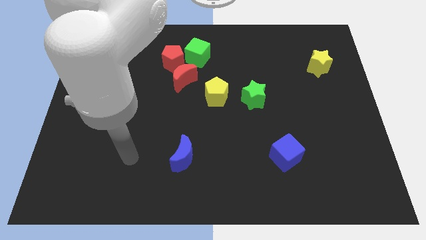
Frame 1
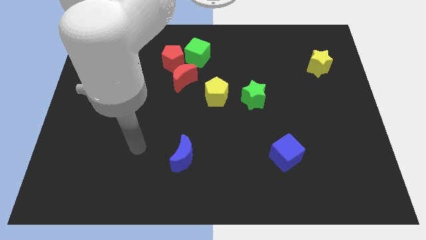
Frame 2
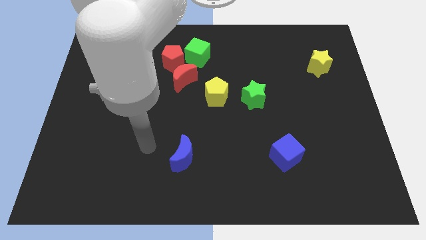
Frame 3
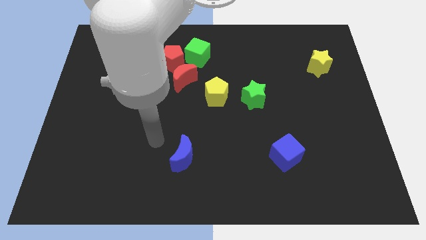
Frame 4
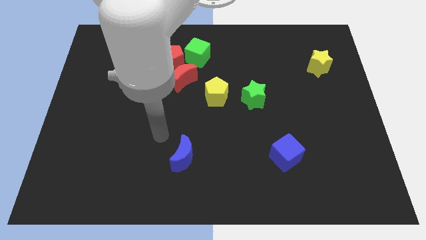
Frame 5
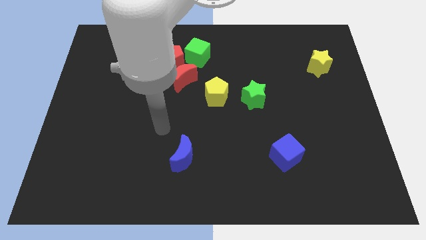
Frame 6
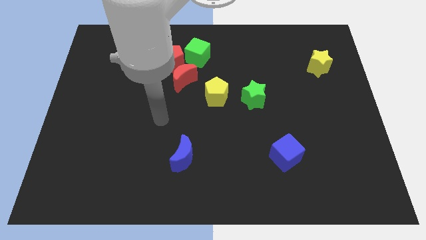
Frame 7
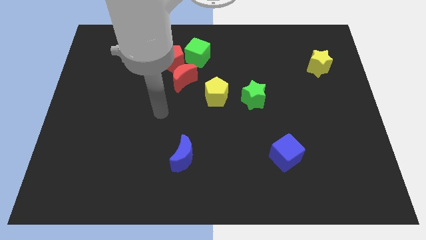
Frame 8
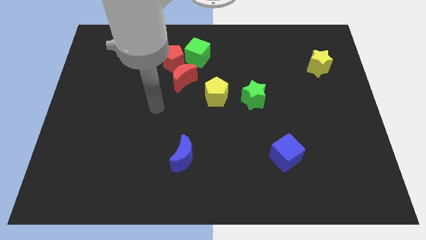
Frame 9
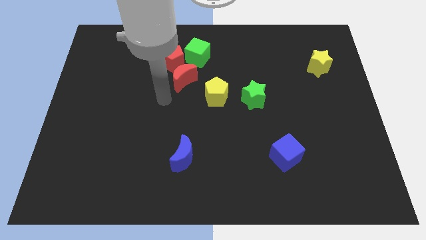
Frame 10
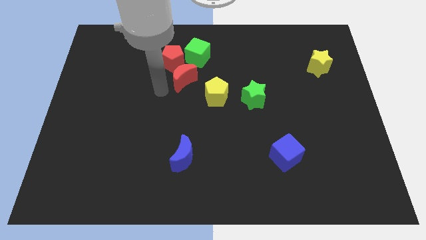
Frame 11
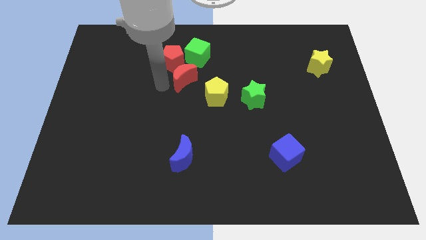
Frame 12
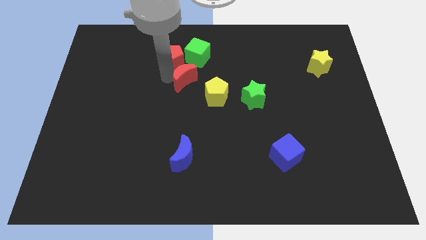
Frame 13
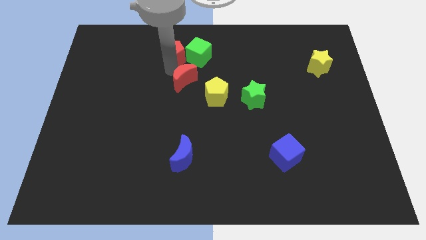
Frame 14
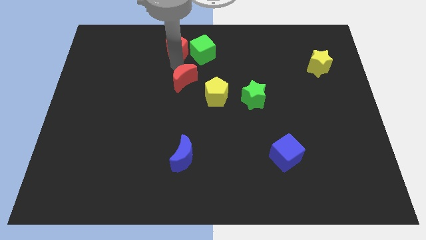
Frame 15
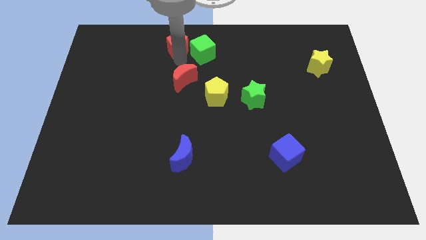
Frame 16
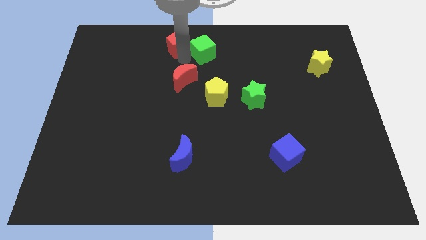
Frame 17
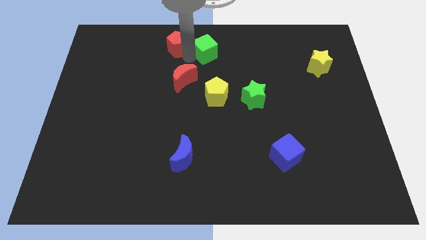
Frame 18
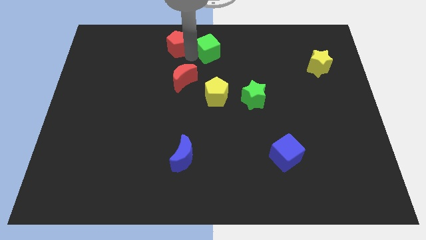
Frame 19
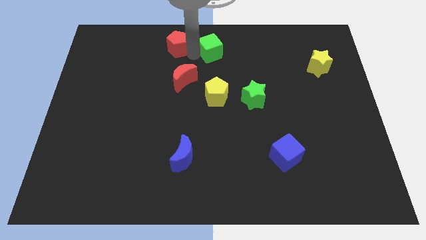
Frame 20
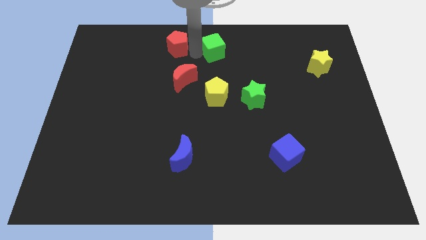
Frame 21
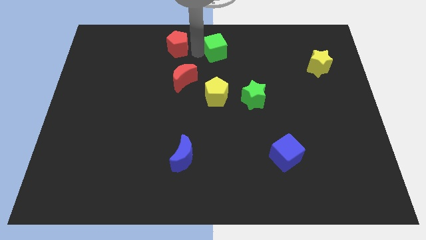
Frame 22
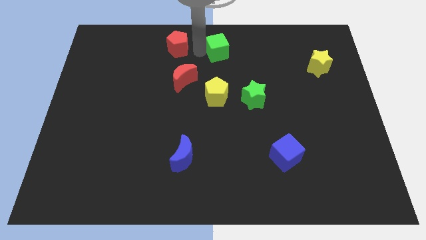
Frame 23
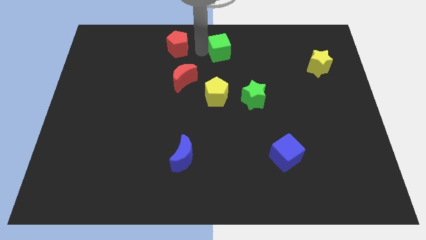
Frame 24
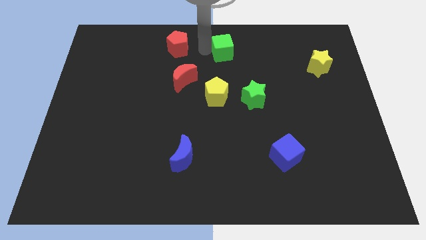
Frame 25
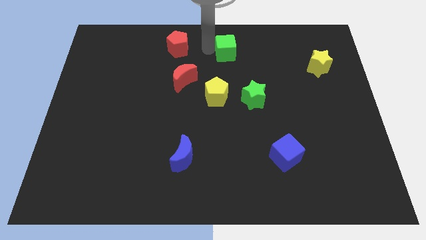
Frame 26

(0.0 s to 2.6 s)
slightly push the green cube to the right

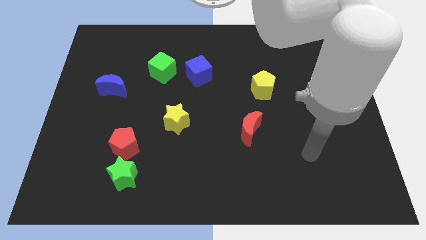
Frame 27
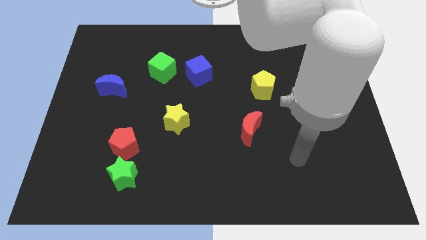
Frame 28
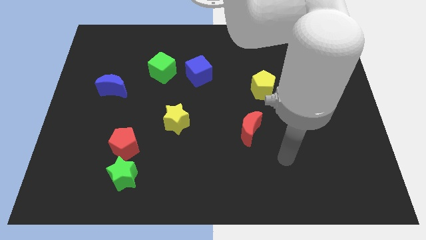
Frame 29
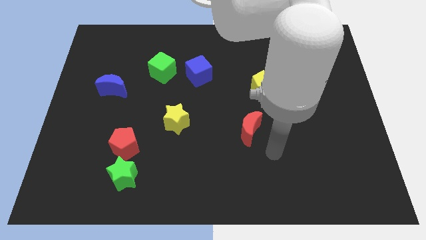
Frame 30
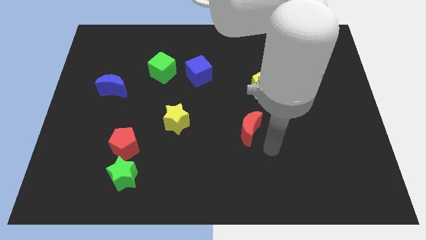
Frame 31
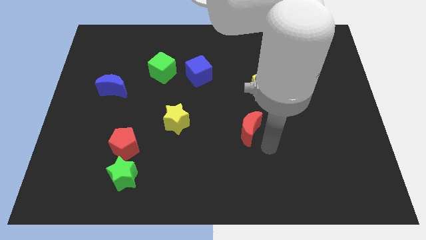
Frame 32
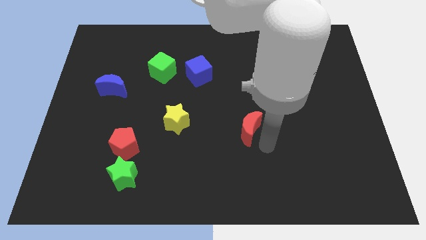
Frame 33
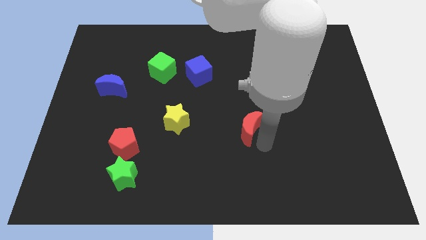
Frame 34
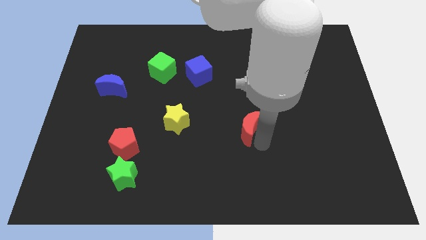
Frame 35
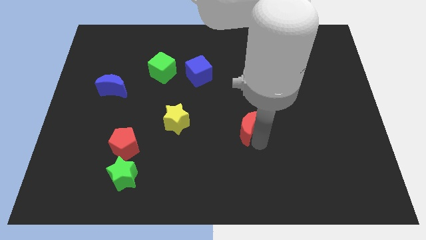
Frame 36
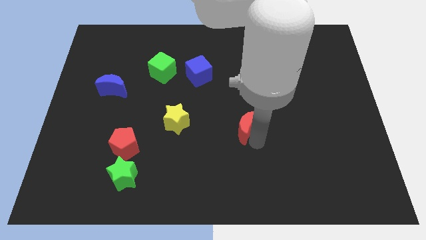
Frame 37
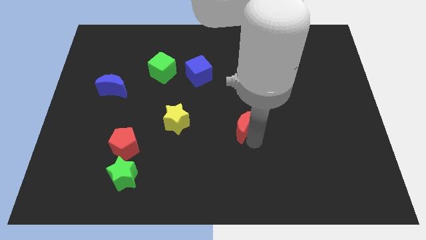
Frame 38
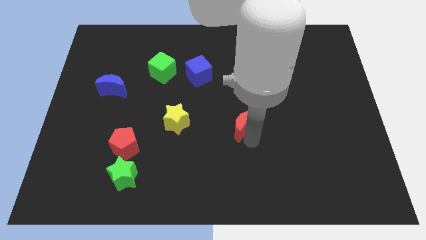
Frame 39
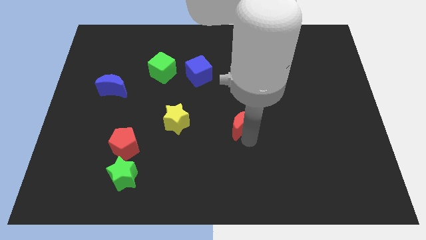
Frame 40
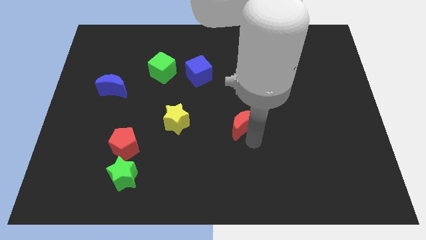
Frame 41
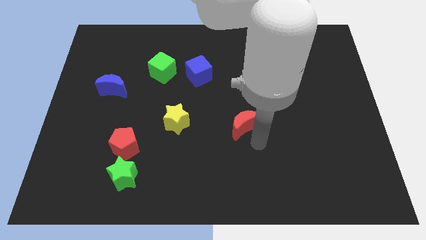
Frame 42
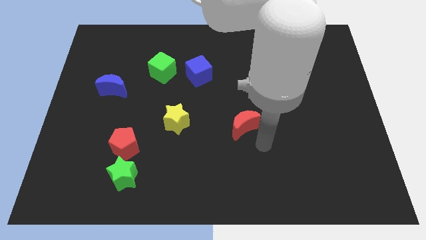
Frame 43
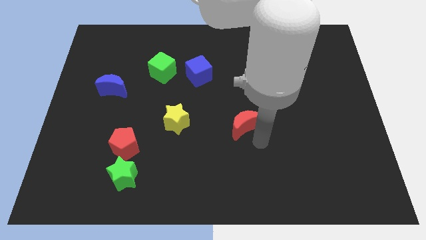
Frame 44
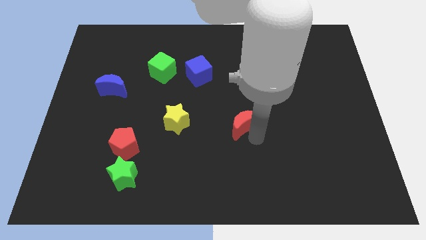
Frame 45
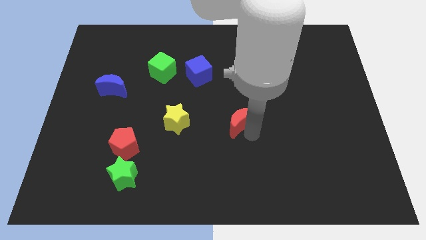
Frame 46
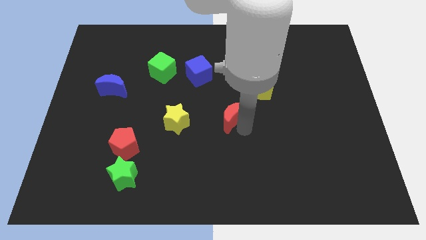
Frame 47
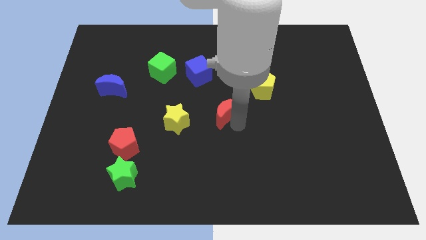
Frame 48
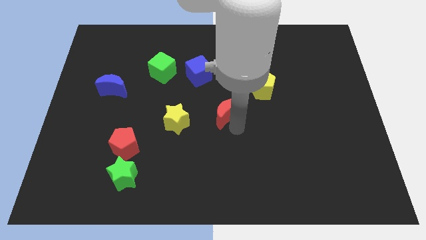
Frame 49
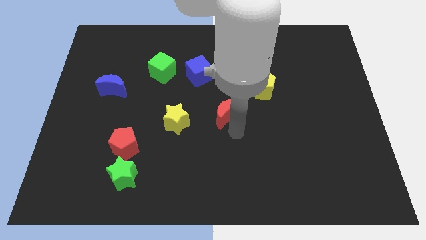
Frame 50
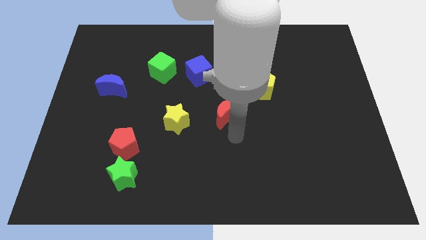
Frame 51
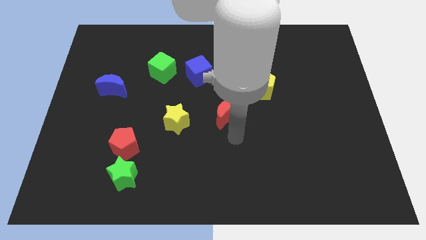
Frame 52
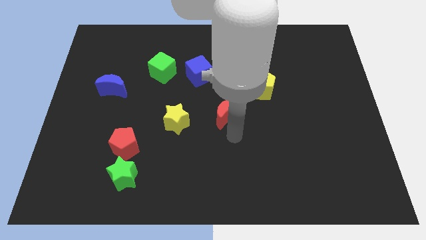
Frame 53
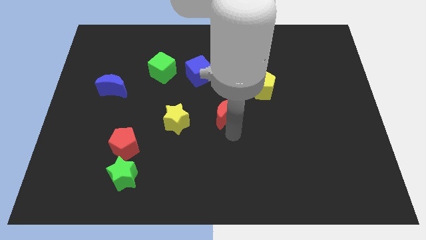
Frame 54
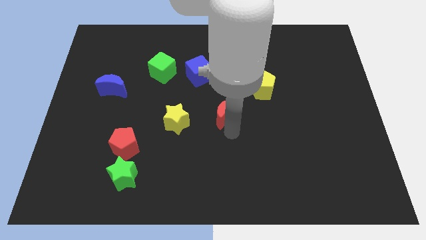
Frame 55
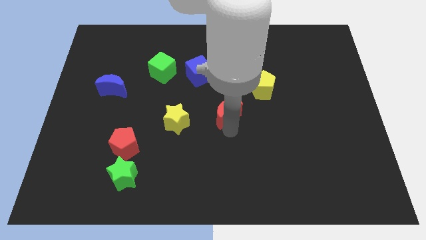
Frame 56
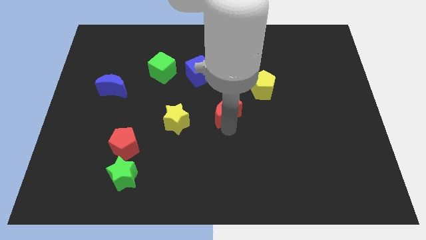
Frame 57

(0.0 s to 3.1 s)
slightly push the red moon diagonally upwards and to the left

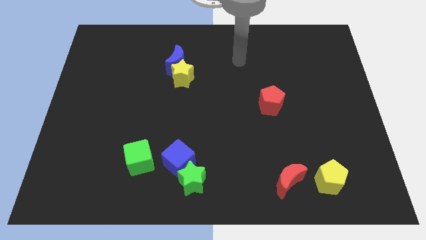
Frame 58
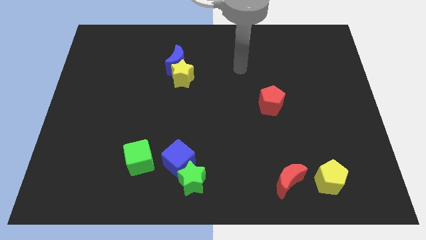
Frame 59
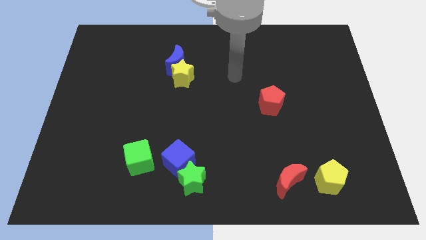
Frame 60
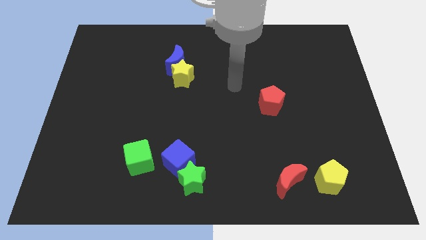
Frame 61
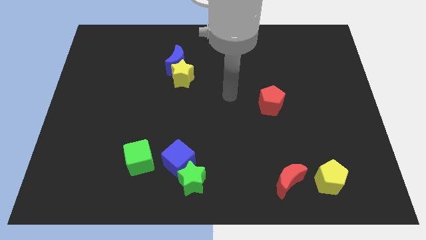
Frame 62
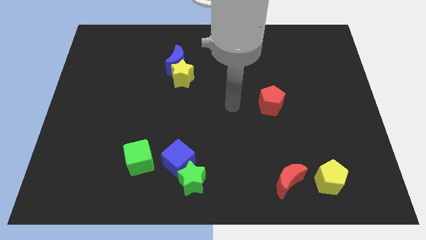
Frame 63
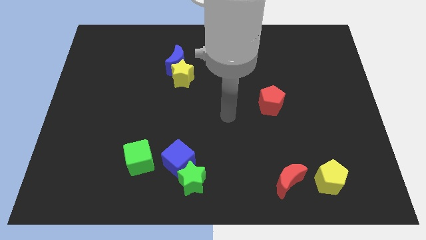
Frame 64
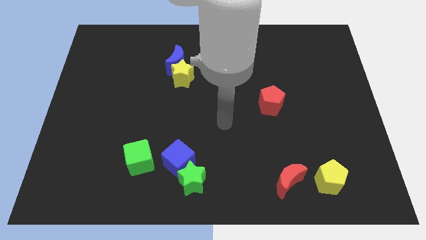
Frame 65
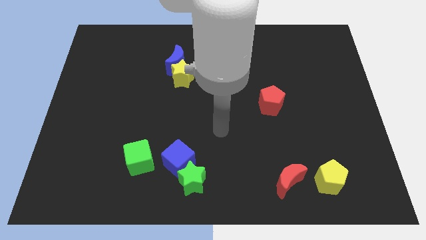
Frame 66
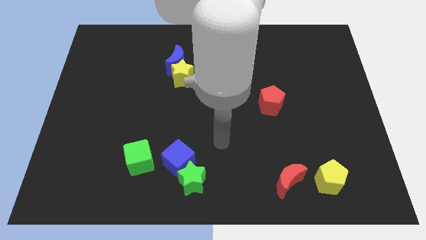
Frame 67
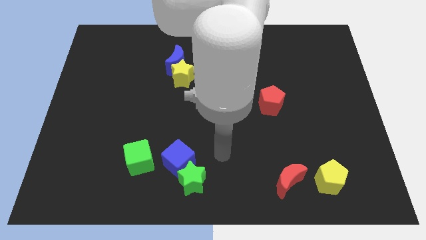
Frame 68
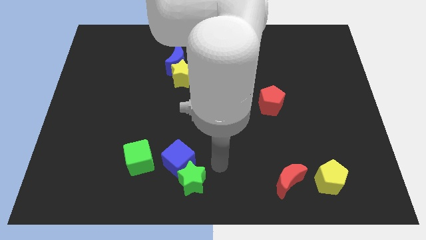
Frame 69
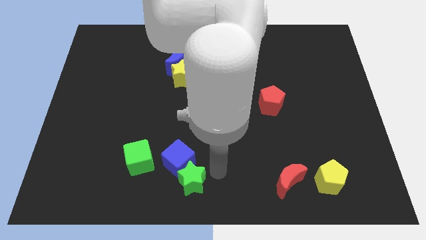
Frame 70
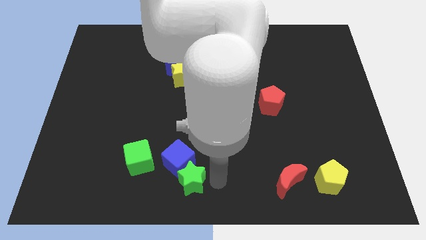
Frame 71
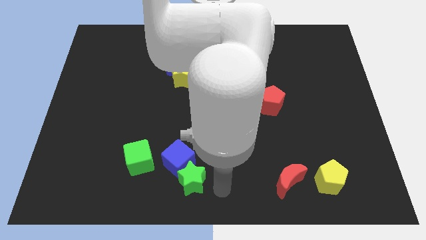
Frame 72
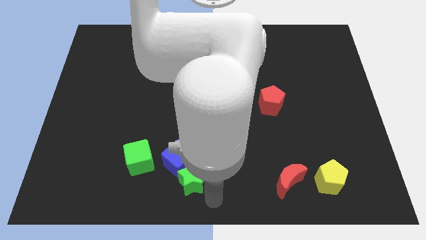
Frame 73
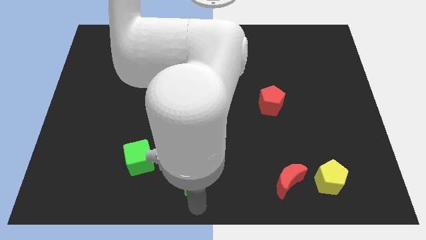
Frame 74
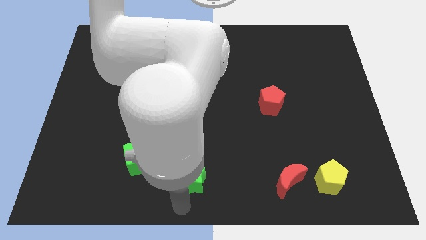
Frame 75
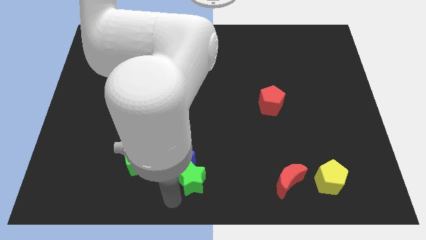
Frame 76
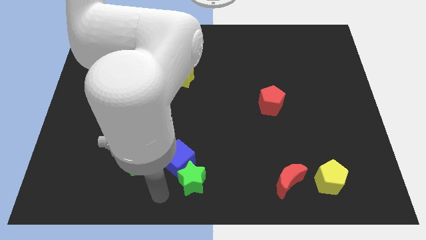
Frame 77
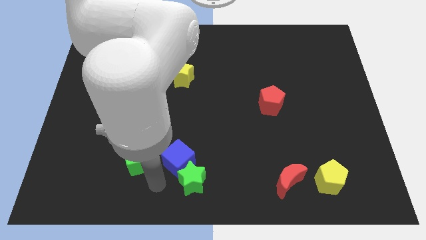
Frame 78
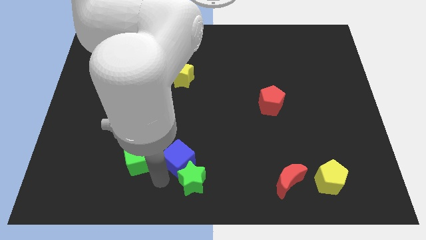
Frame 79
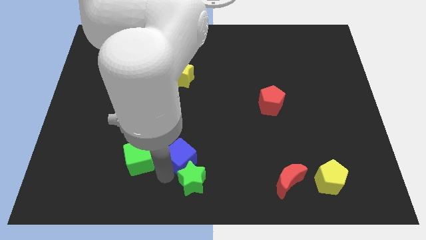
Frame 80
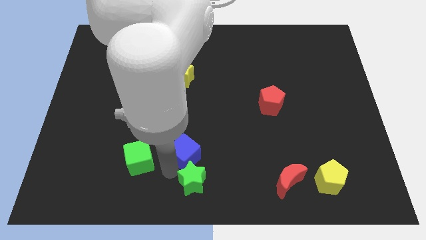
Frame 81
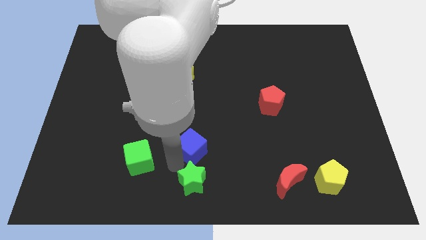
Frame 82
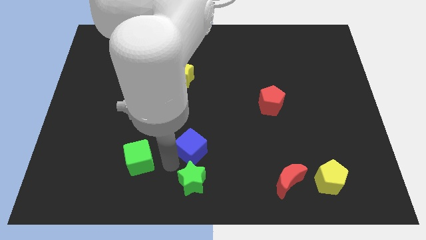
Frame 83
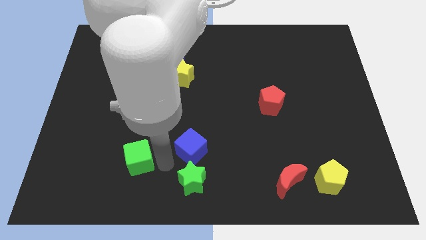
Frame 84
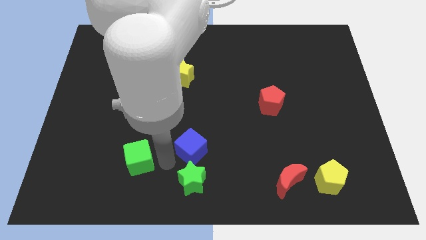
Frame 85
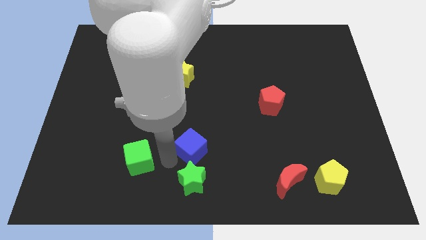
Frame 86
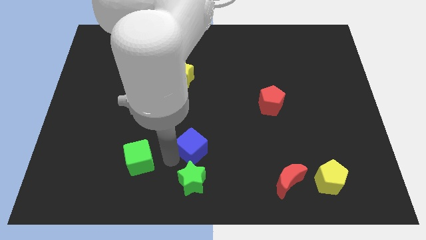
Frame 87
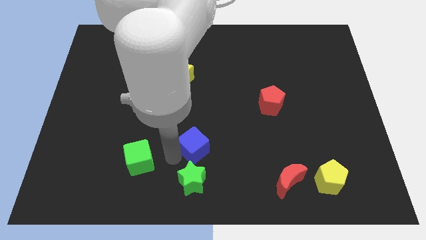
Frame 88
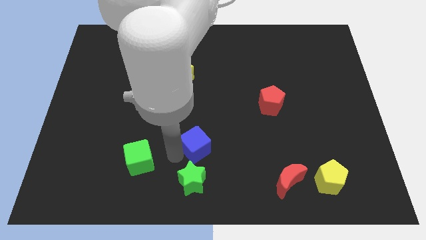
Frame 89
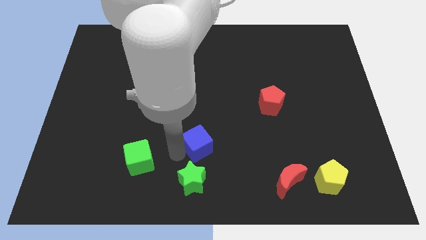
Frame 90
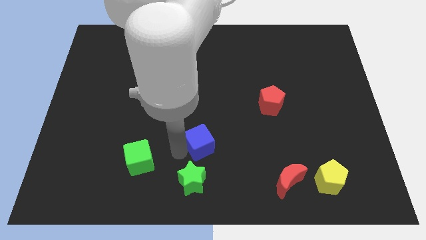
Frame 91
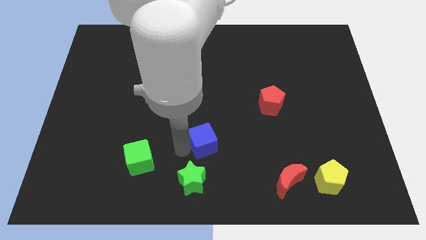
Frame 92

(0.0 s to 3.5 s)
push the blue cube up and right slightly
